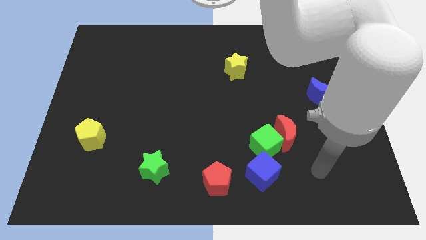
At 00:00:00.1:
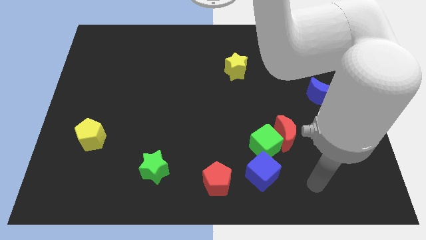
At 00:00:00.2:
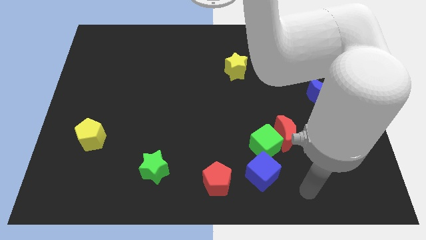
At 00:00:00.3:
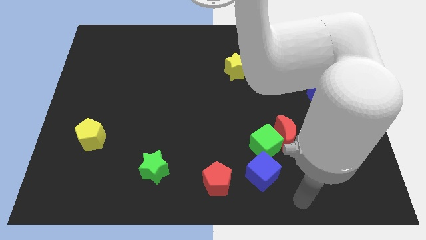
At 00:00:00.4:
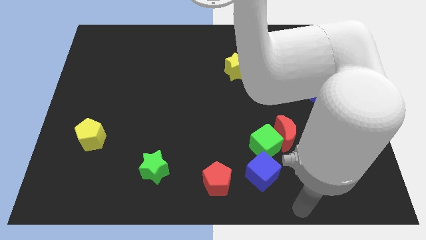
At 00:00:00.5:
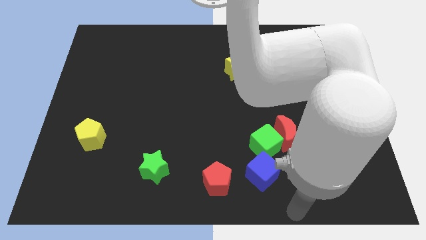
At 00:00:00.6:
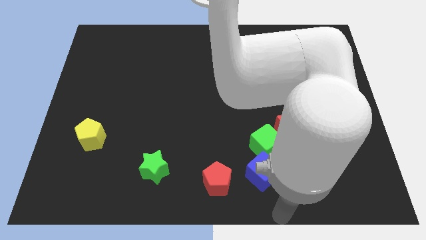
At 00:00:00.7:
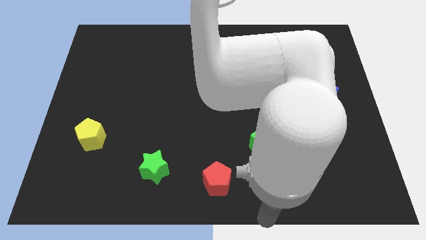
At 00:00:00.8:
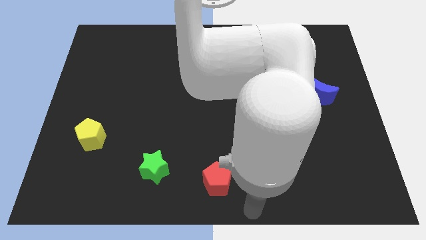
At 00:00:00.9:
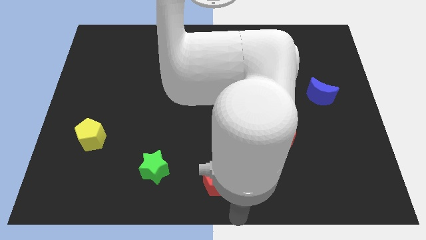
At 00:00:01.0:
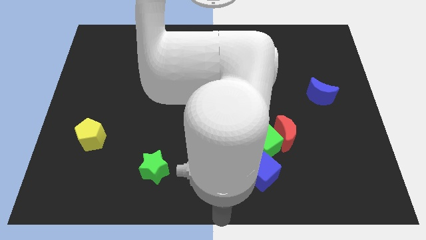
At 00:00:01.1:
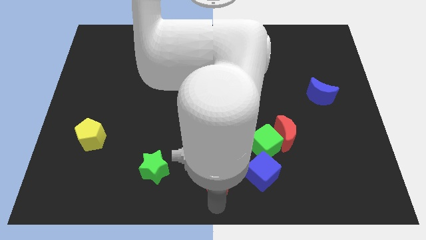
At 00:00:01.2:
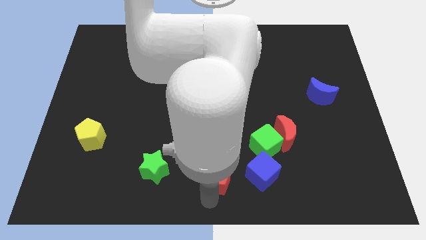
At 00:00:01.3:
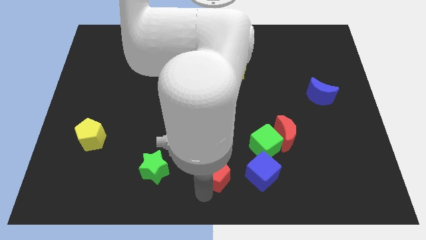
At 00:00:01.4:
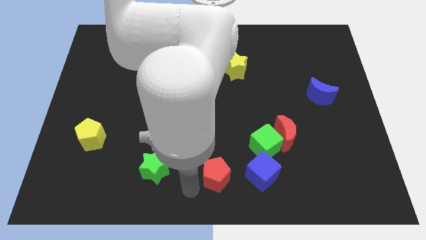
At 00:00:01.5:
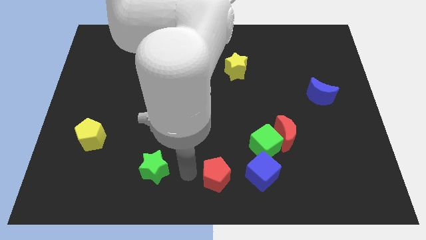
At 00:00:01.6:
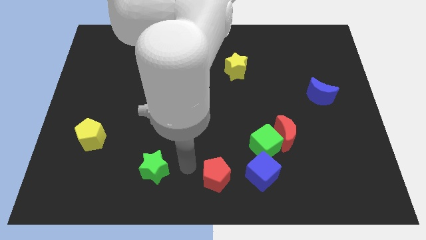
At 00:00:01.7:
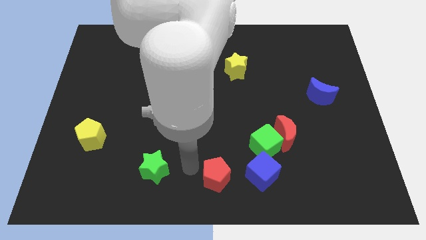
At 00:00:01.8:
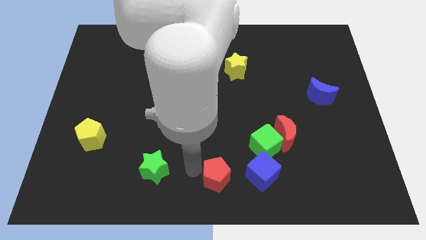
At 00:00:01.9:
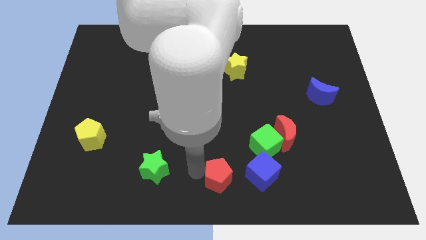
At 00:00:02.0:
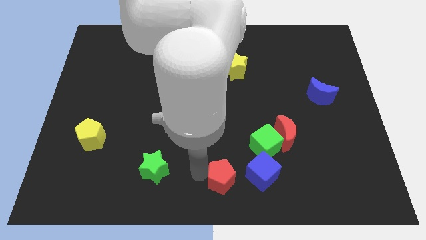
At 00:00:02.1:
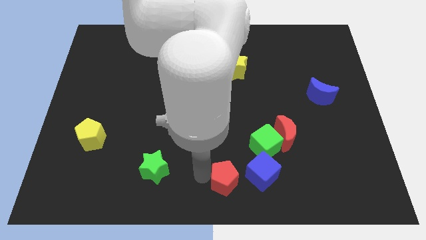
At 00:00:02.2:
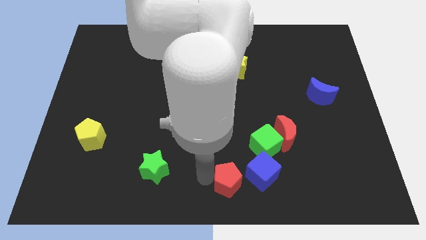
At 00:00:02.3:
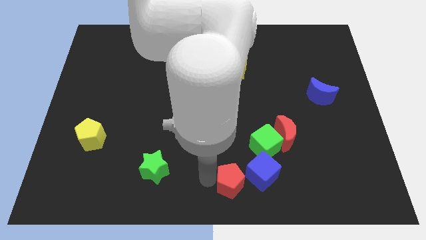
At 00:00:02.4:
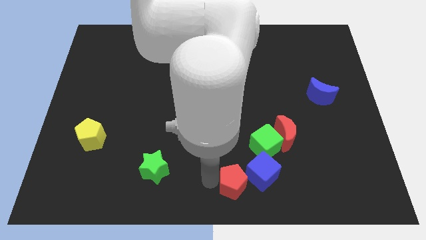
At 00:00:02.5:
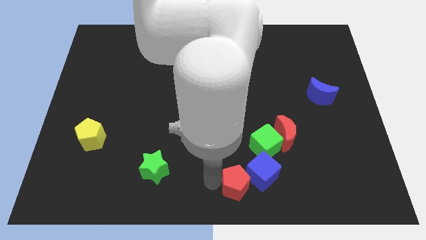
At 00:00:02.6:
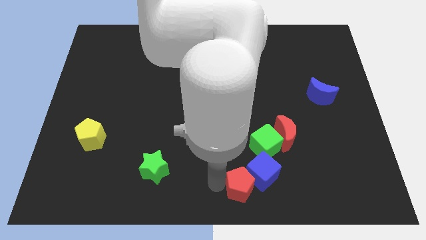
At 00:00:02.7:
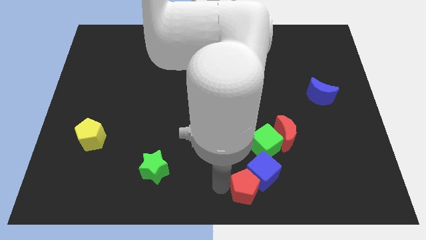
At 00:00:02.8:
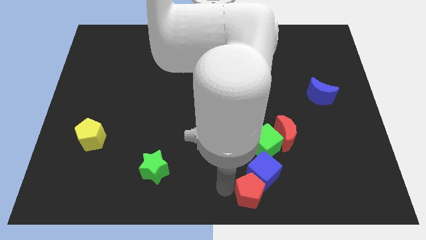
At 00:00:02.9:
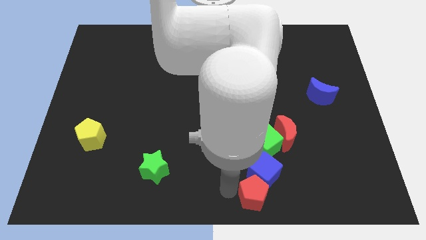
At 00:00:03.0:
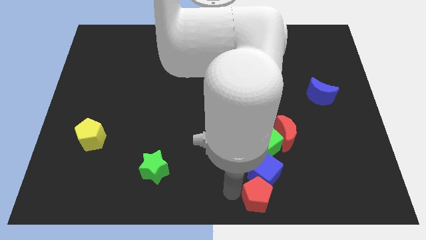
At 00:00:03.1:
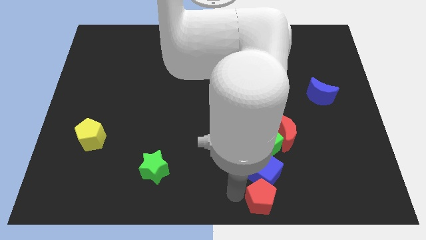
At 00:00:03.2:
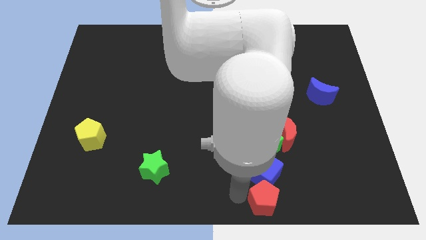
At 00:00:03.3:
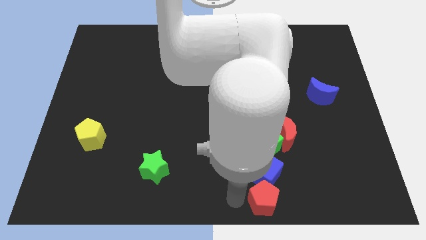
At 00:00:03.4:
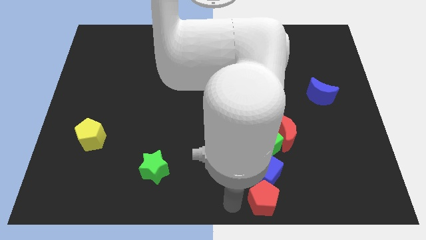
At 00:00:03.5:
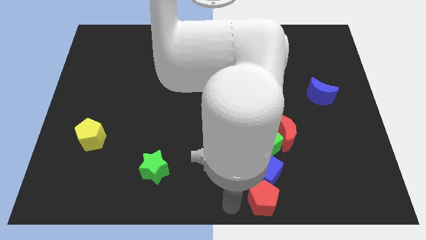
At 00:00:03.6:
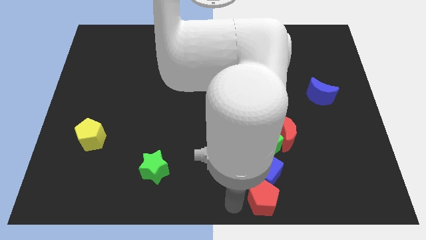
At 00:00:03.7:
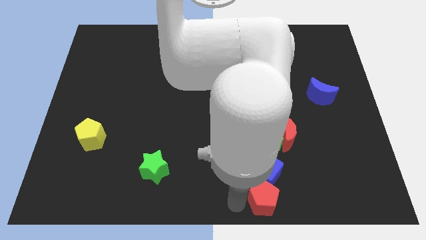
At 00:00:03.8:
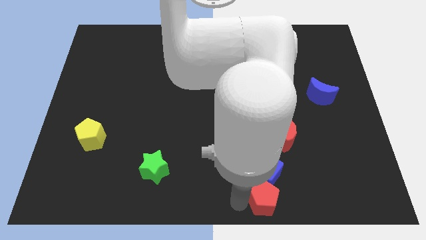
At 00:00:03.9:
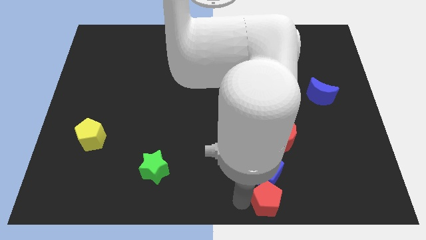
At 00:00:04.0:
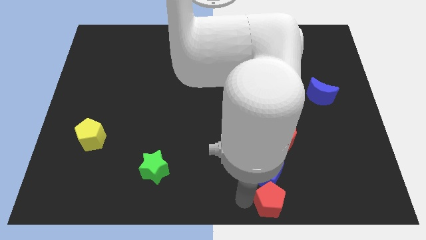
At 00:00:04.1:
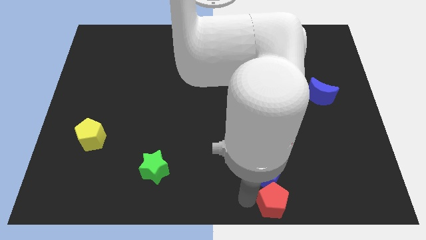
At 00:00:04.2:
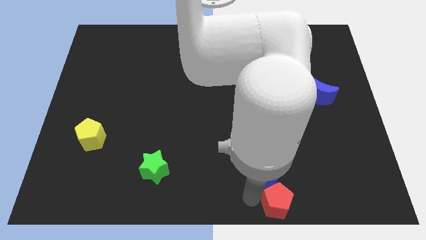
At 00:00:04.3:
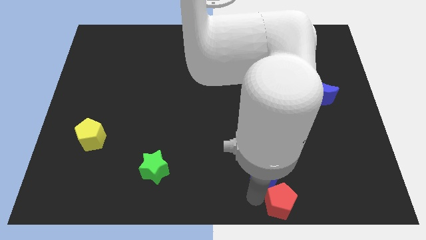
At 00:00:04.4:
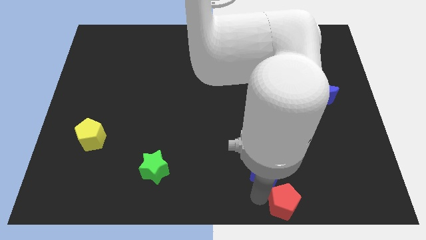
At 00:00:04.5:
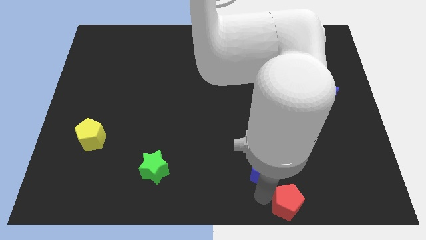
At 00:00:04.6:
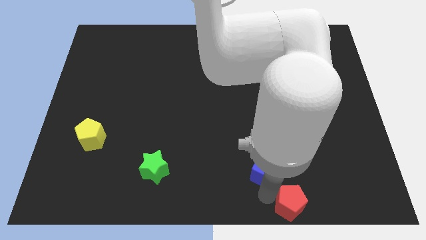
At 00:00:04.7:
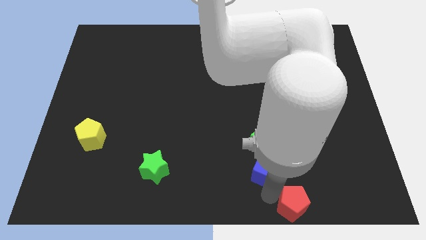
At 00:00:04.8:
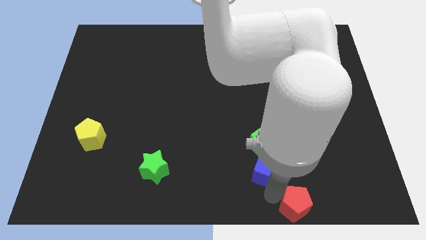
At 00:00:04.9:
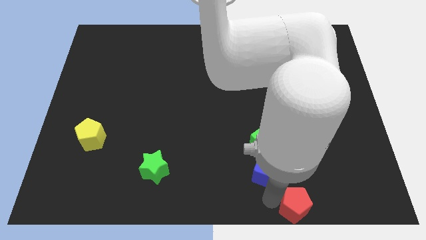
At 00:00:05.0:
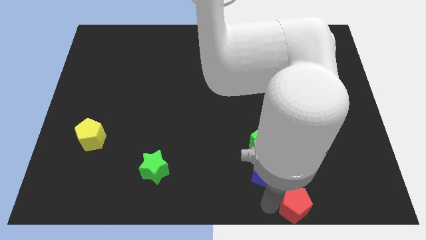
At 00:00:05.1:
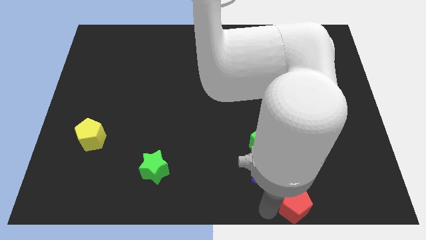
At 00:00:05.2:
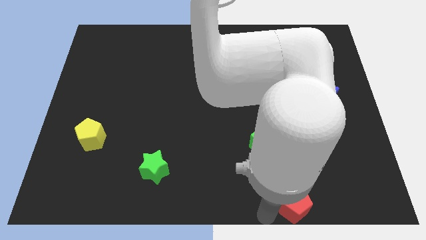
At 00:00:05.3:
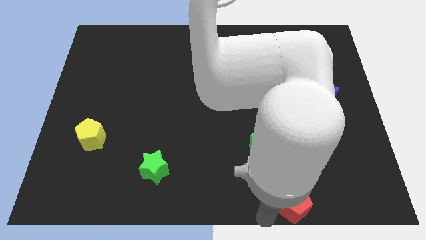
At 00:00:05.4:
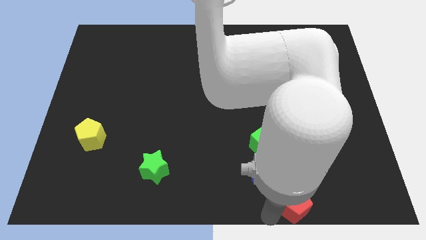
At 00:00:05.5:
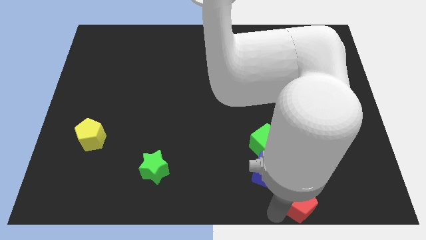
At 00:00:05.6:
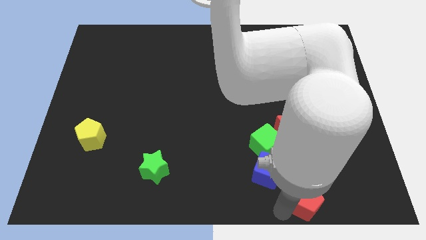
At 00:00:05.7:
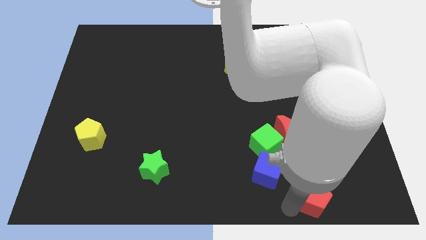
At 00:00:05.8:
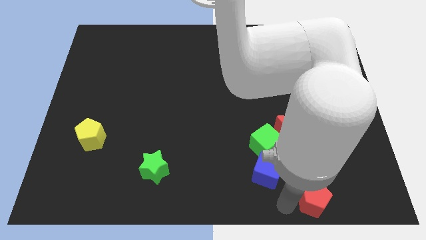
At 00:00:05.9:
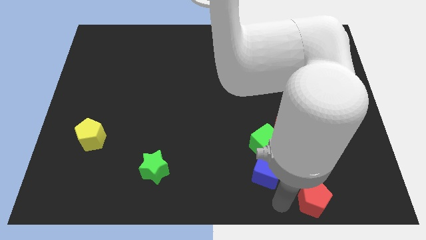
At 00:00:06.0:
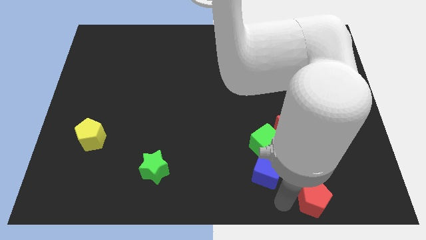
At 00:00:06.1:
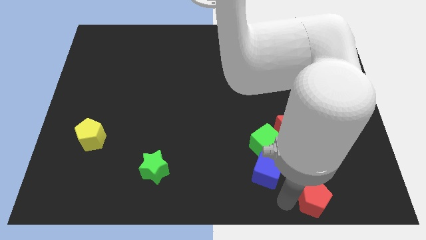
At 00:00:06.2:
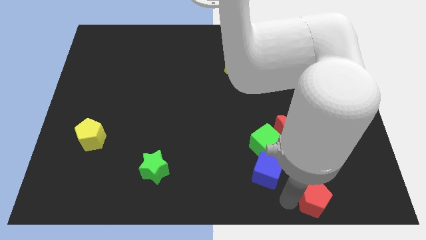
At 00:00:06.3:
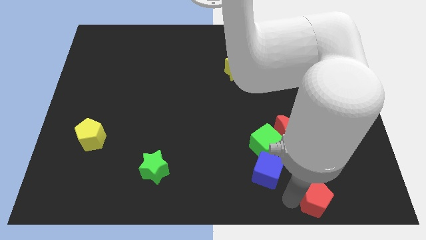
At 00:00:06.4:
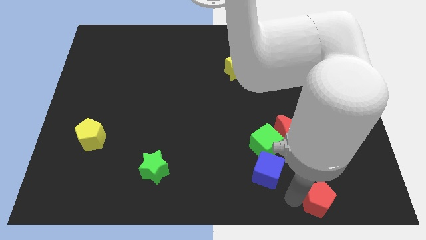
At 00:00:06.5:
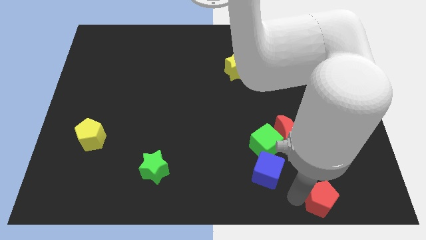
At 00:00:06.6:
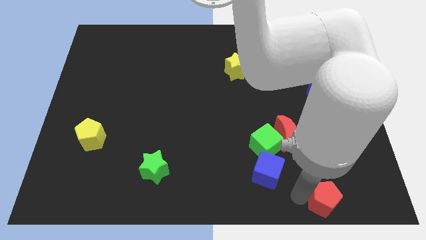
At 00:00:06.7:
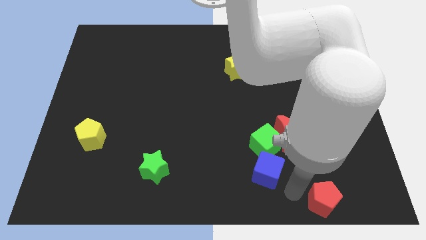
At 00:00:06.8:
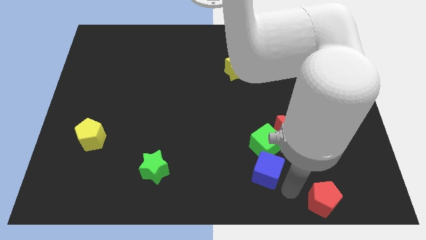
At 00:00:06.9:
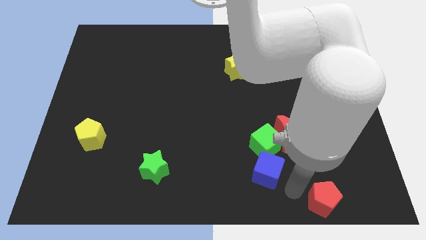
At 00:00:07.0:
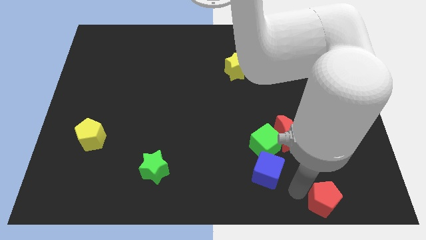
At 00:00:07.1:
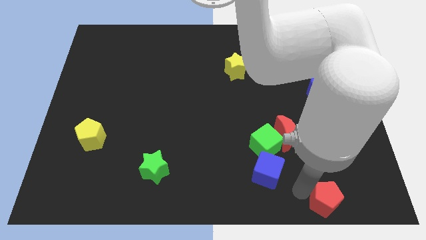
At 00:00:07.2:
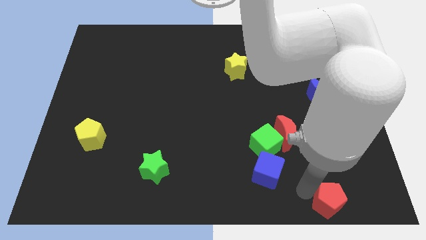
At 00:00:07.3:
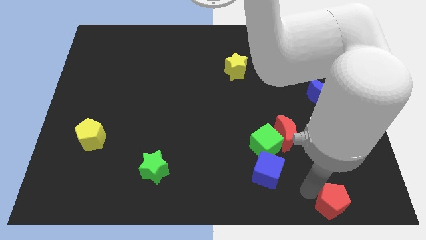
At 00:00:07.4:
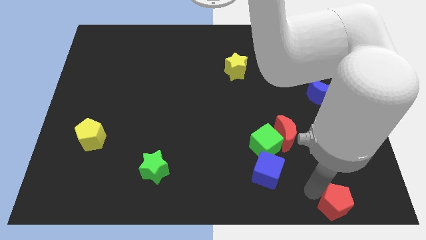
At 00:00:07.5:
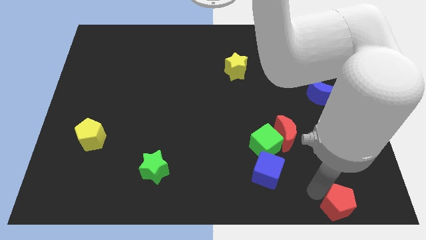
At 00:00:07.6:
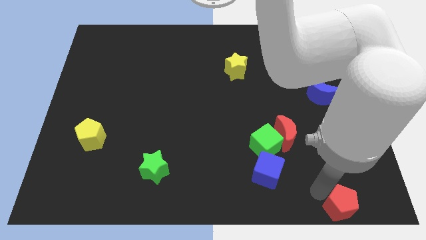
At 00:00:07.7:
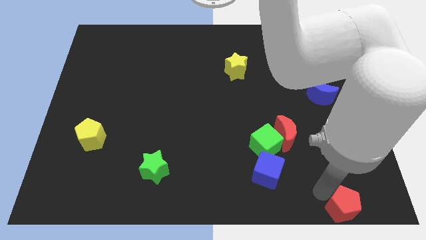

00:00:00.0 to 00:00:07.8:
push the red pentagon to the bottom right
